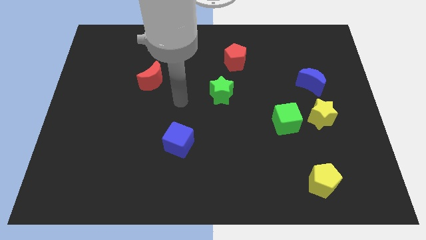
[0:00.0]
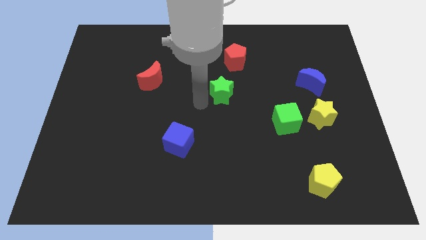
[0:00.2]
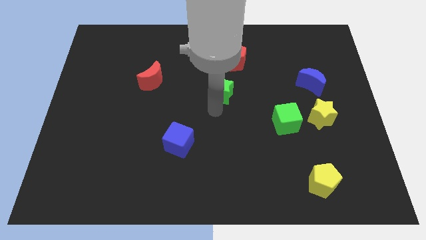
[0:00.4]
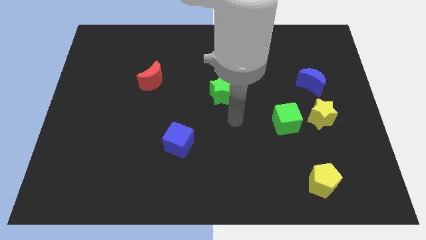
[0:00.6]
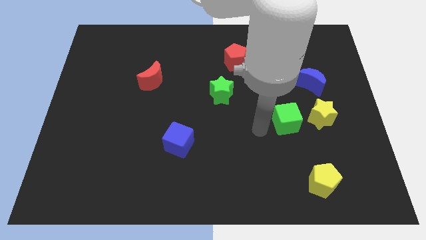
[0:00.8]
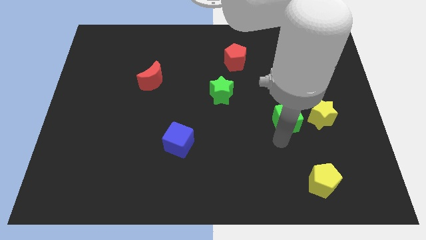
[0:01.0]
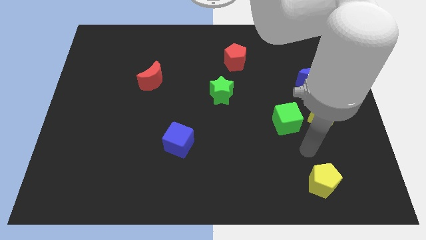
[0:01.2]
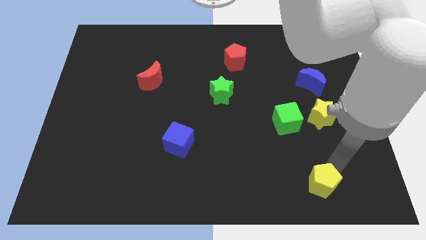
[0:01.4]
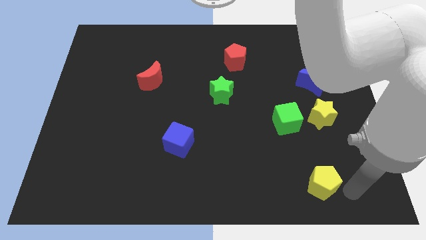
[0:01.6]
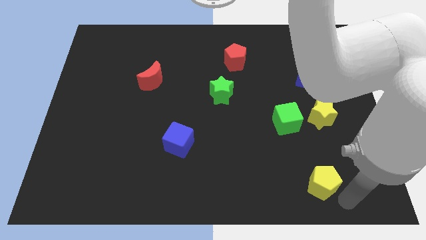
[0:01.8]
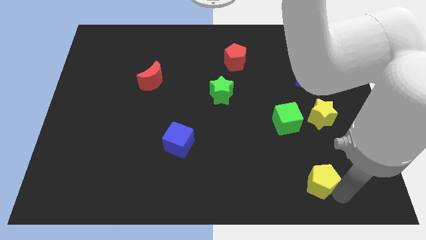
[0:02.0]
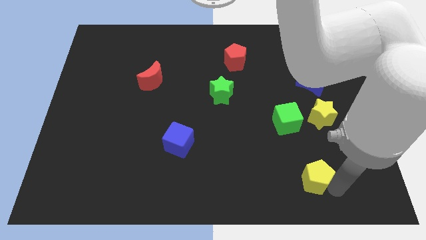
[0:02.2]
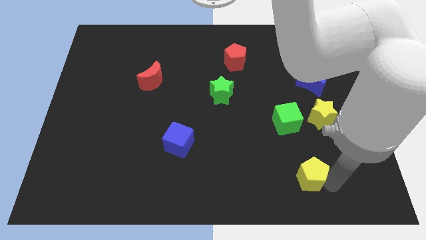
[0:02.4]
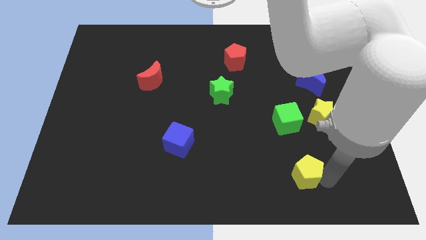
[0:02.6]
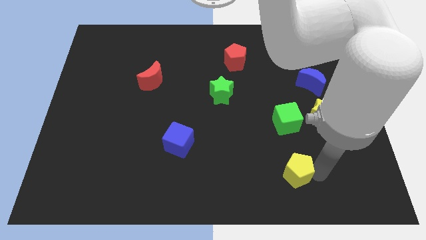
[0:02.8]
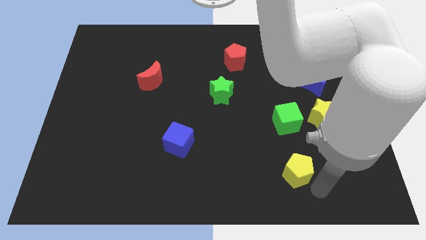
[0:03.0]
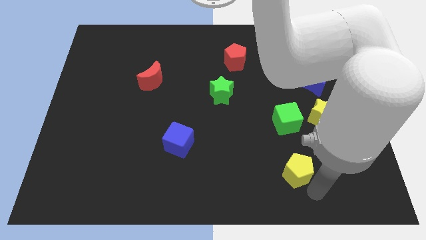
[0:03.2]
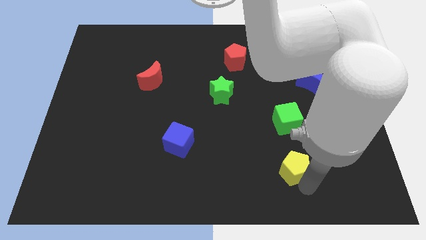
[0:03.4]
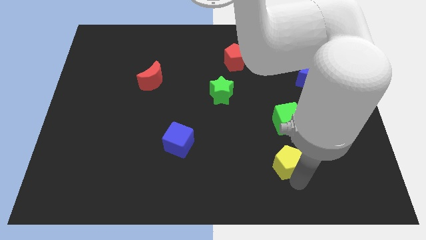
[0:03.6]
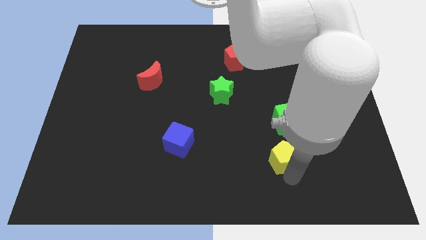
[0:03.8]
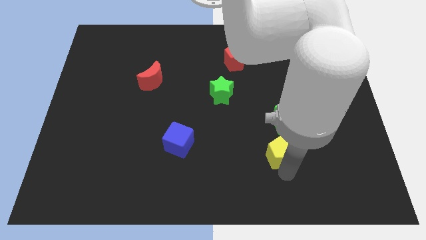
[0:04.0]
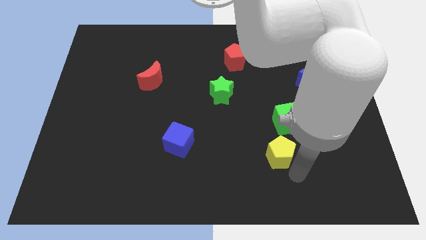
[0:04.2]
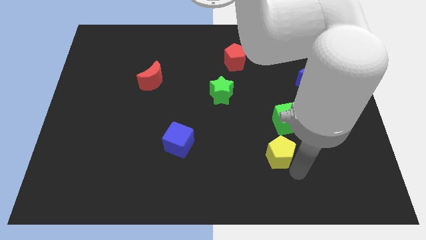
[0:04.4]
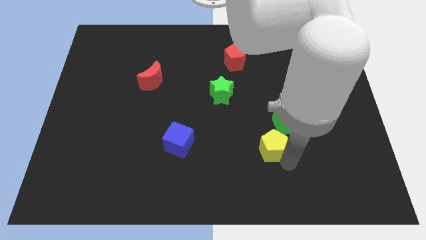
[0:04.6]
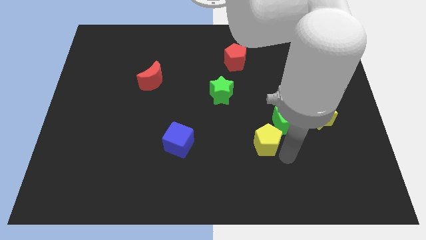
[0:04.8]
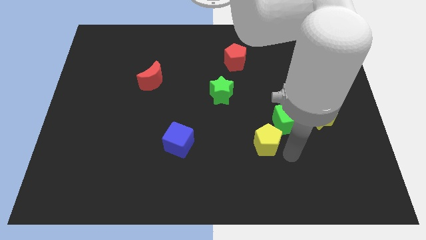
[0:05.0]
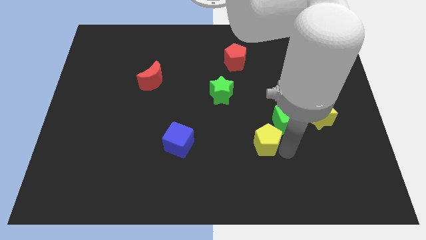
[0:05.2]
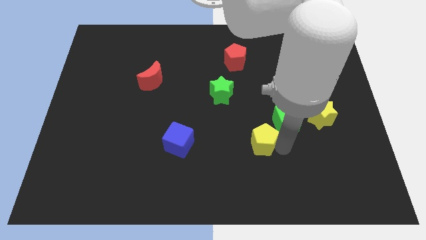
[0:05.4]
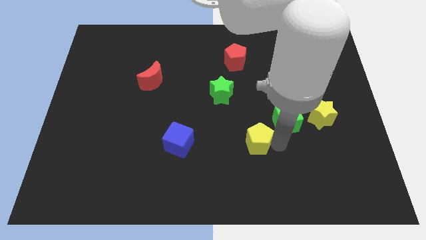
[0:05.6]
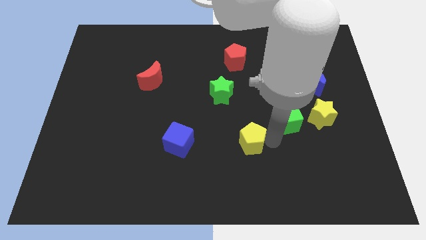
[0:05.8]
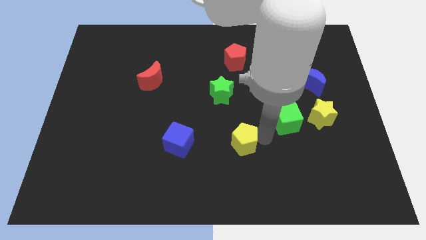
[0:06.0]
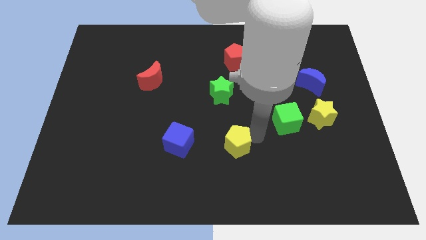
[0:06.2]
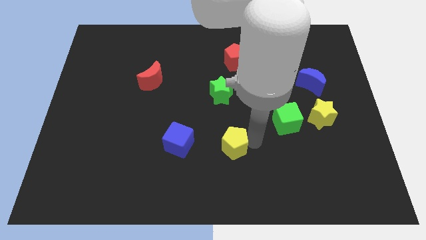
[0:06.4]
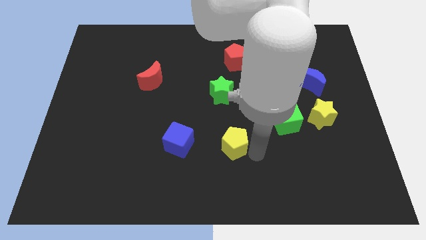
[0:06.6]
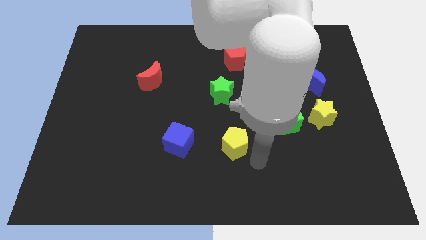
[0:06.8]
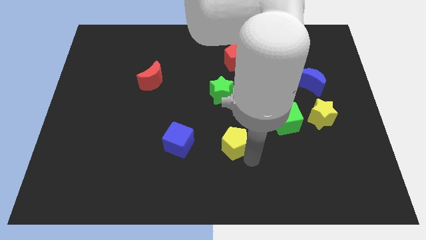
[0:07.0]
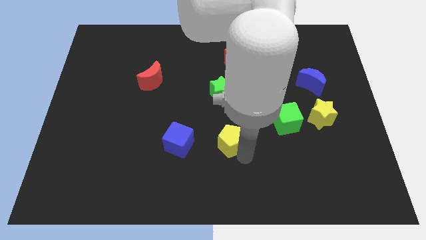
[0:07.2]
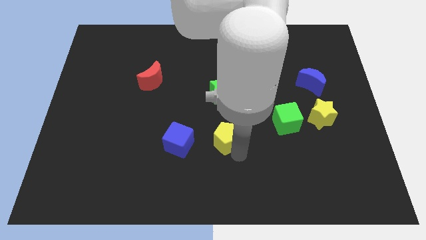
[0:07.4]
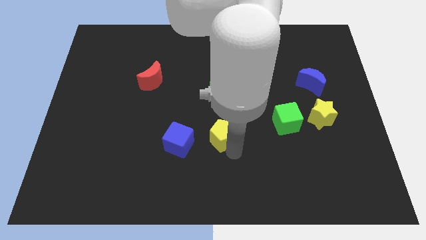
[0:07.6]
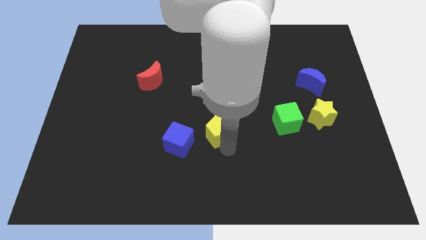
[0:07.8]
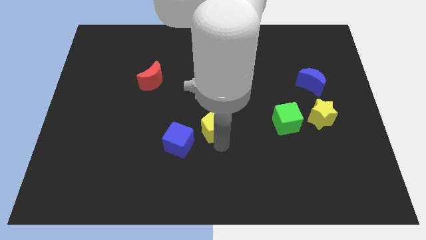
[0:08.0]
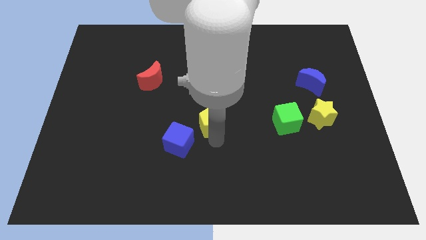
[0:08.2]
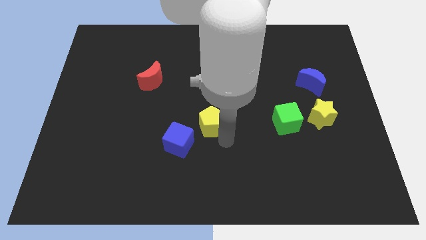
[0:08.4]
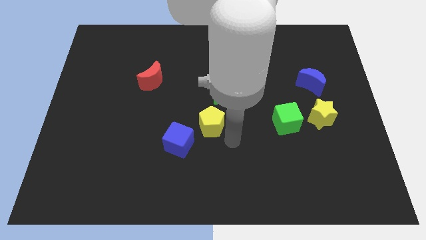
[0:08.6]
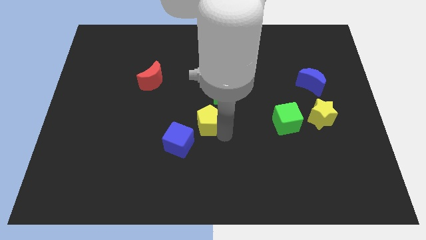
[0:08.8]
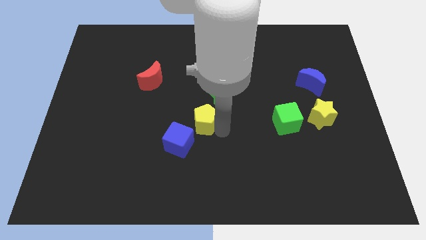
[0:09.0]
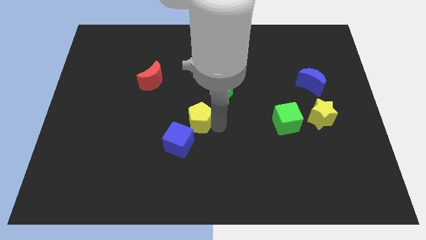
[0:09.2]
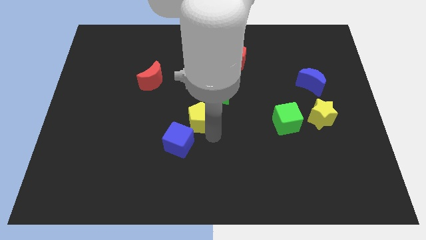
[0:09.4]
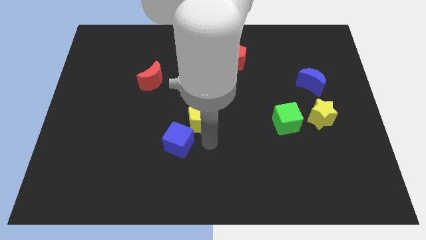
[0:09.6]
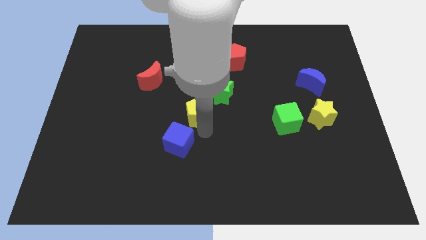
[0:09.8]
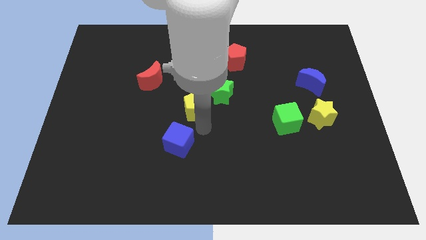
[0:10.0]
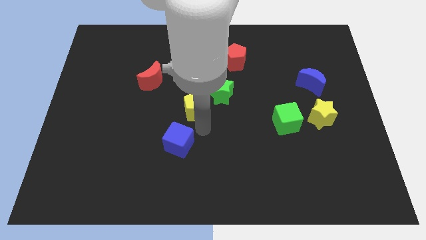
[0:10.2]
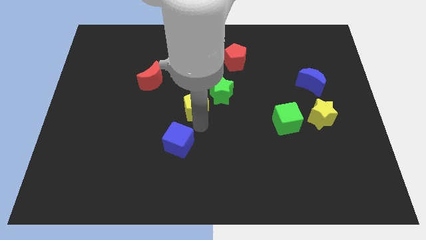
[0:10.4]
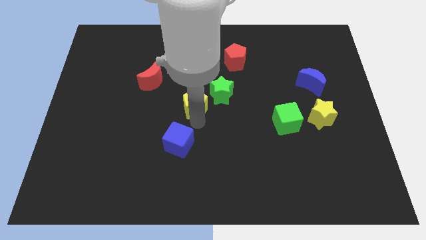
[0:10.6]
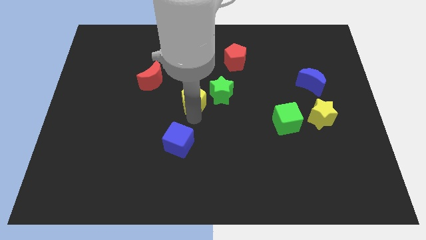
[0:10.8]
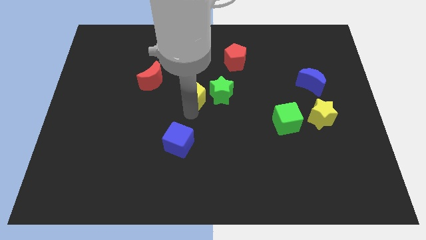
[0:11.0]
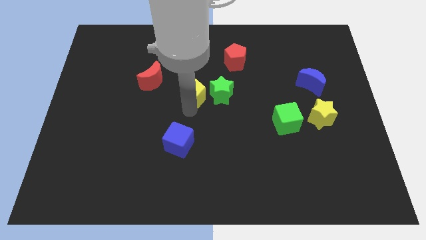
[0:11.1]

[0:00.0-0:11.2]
push the yellow pentagon right of the red moon

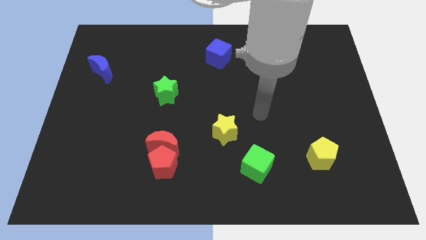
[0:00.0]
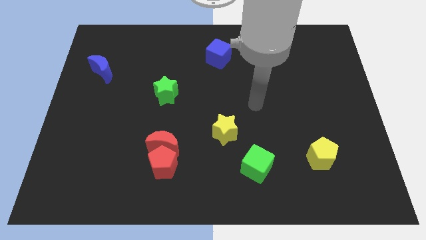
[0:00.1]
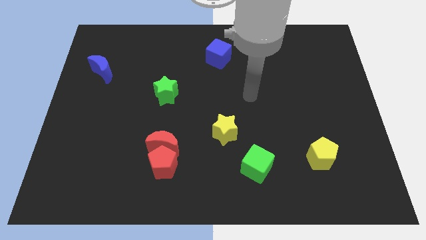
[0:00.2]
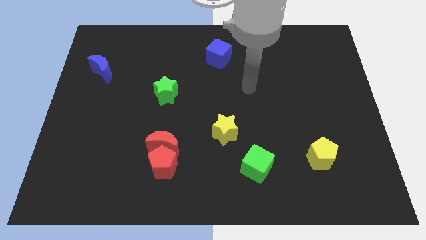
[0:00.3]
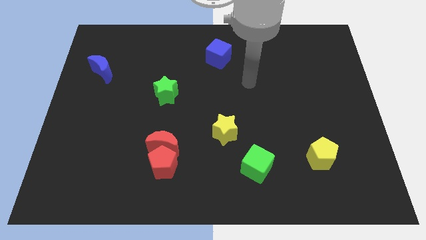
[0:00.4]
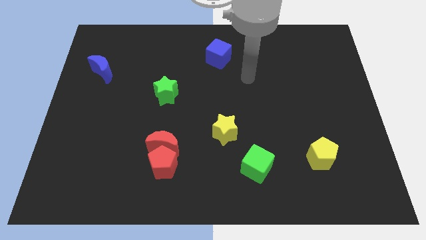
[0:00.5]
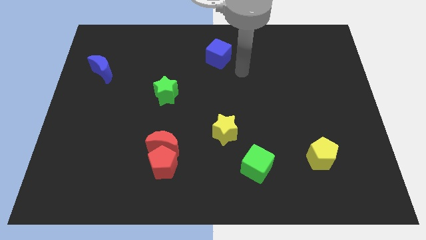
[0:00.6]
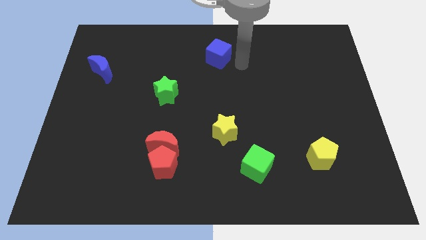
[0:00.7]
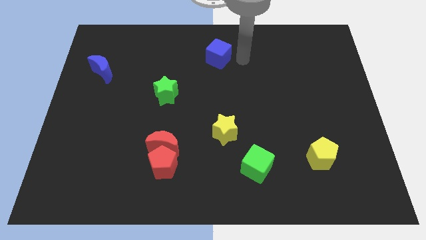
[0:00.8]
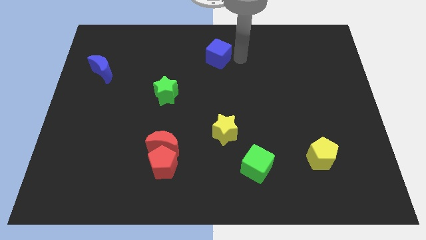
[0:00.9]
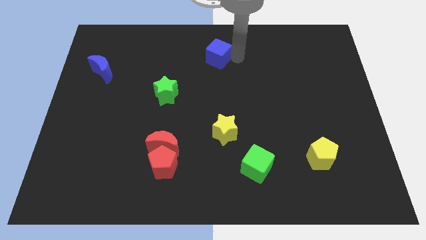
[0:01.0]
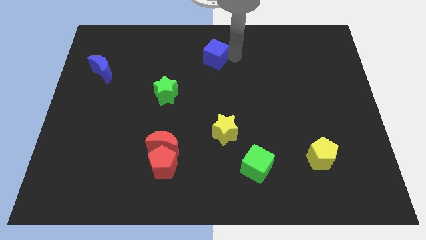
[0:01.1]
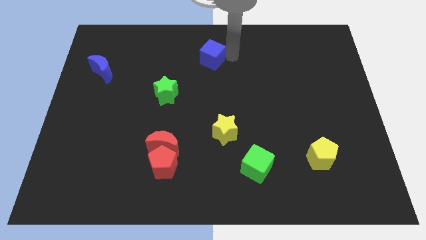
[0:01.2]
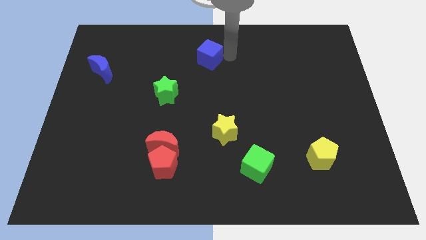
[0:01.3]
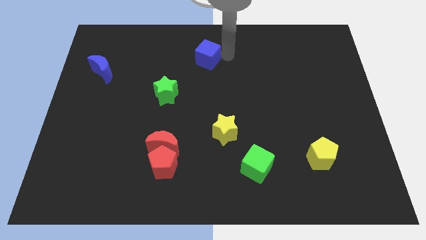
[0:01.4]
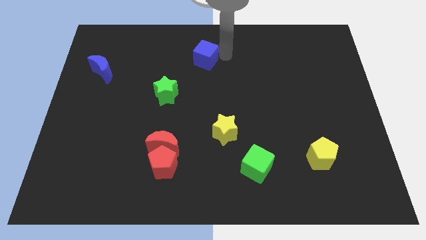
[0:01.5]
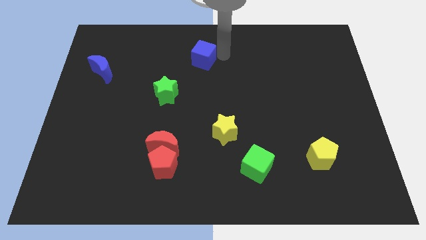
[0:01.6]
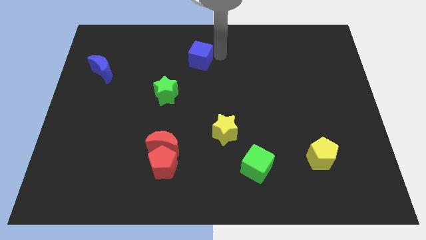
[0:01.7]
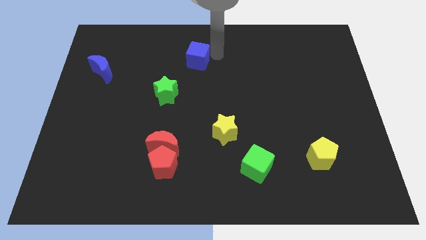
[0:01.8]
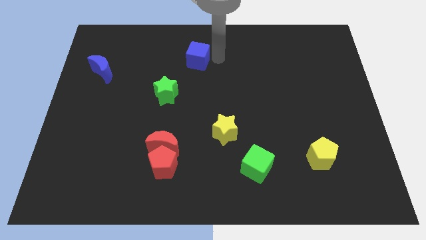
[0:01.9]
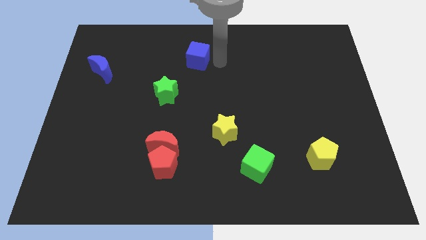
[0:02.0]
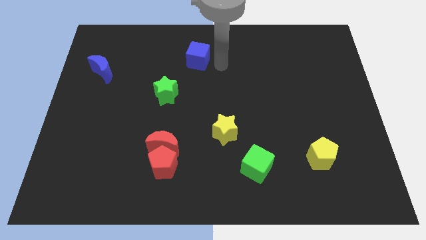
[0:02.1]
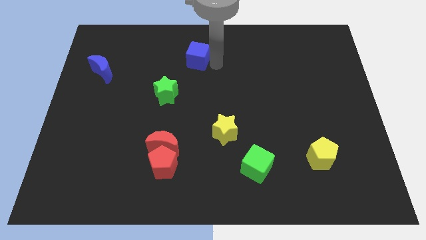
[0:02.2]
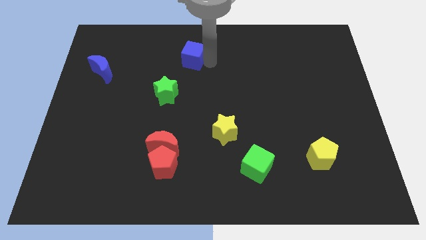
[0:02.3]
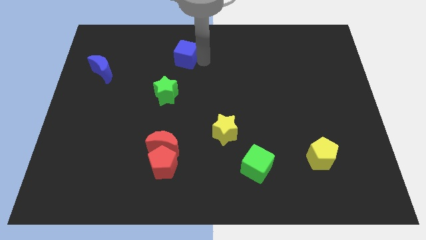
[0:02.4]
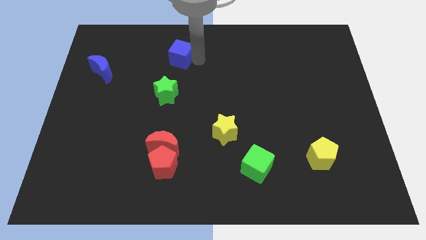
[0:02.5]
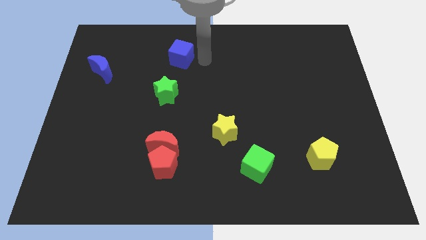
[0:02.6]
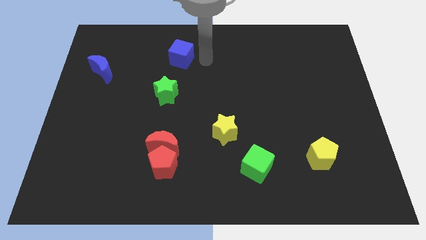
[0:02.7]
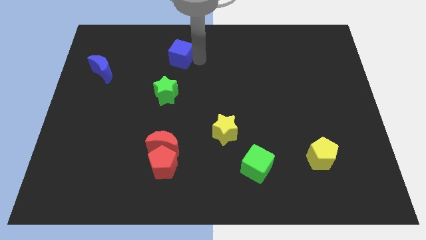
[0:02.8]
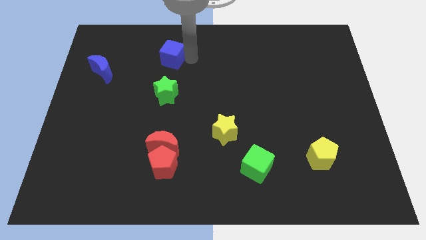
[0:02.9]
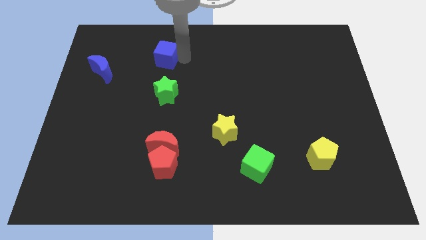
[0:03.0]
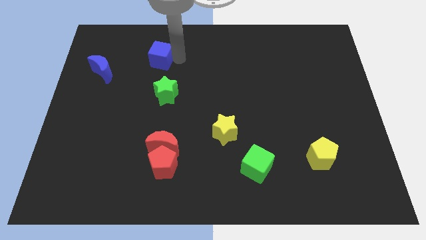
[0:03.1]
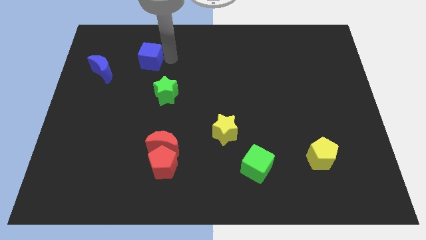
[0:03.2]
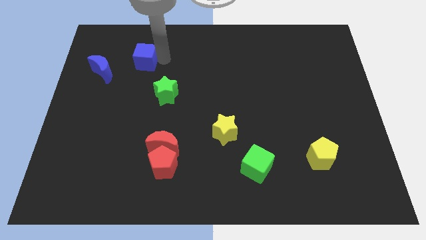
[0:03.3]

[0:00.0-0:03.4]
push the blue cube to the top right of the blue moon
